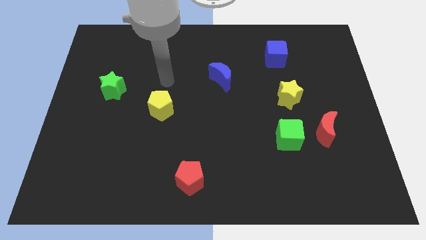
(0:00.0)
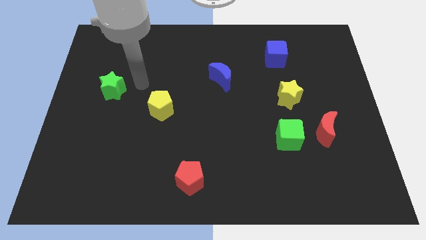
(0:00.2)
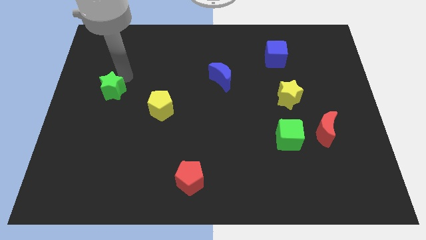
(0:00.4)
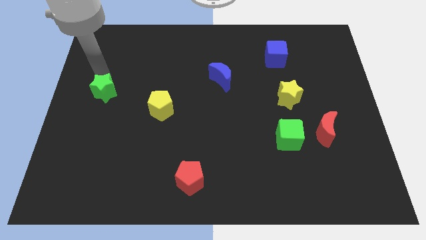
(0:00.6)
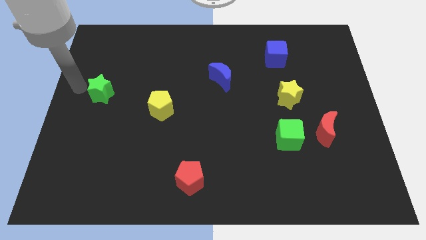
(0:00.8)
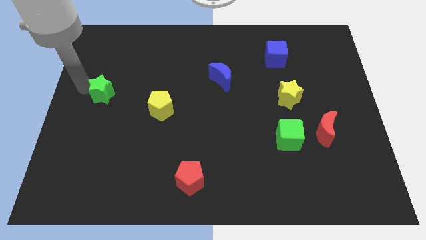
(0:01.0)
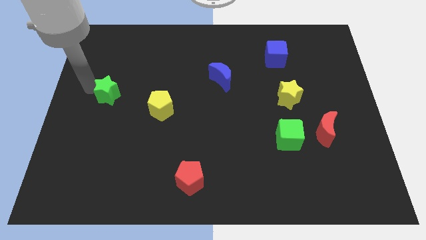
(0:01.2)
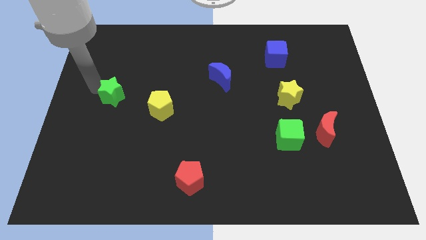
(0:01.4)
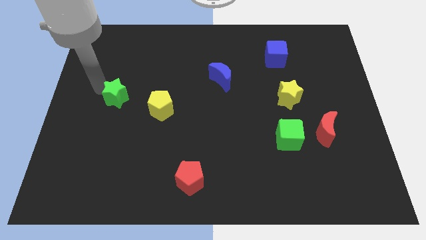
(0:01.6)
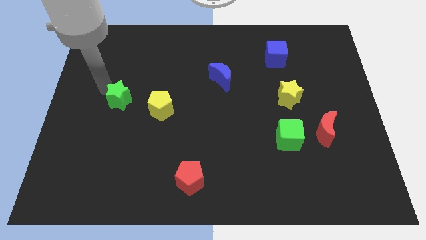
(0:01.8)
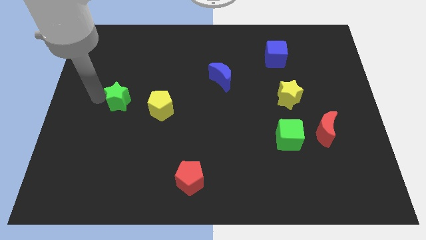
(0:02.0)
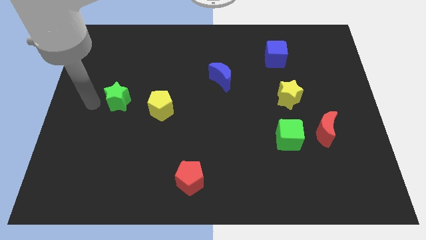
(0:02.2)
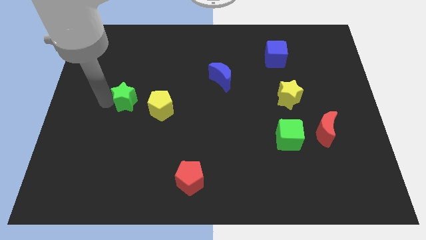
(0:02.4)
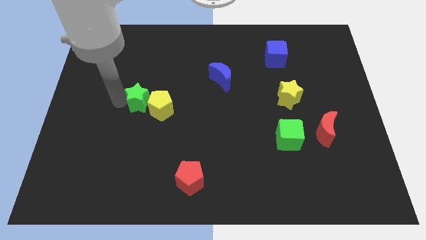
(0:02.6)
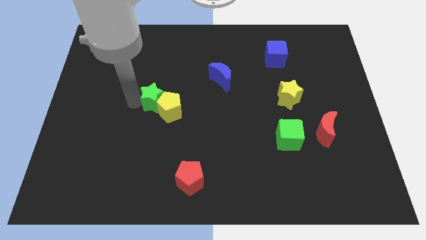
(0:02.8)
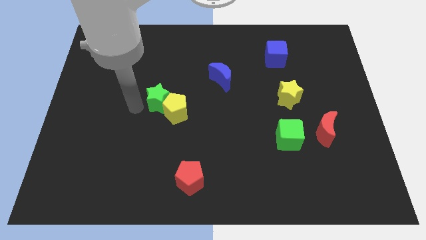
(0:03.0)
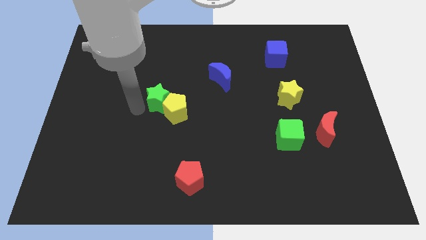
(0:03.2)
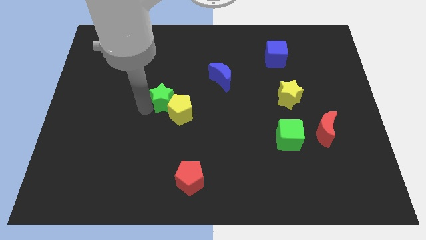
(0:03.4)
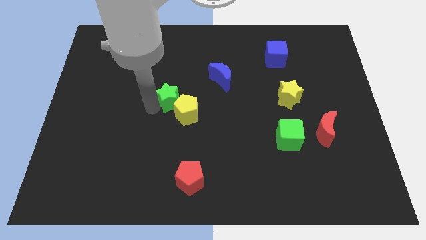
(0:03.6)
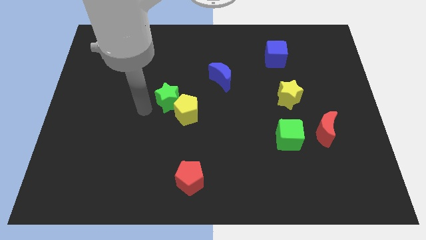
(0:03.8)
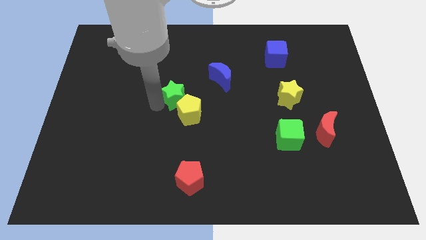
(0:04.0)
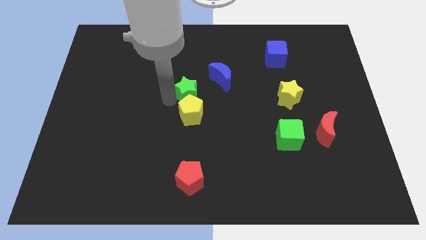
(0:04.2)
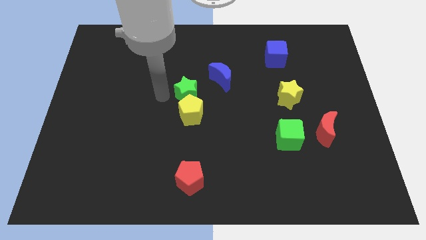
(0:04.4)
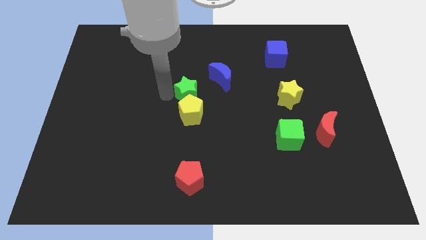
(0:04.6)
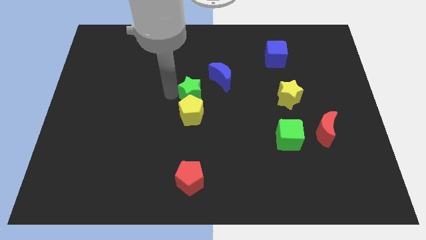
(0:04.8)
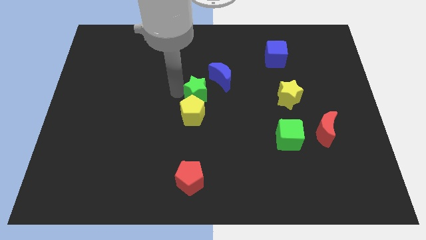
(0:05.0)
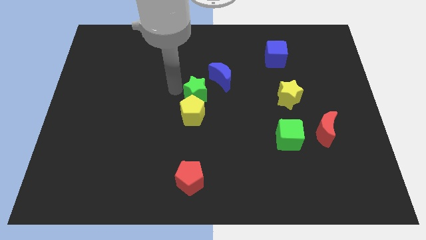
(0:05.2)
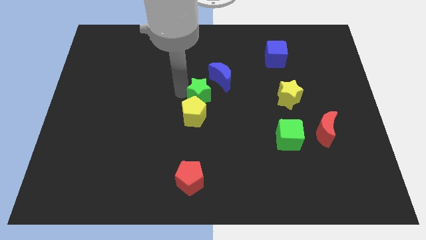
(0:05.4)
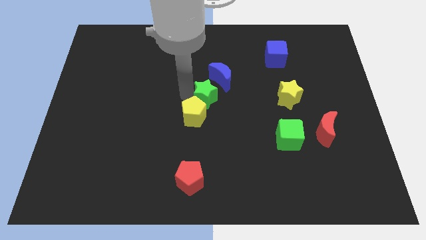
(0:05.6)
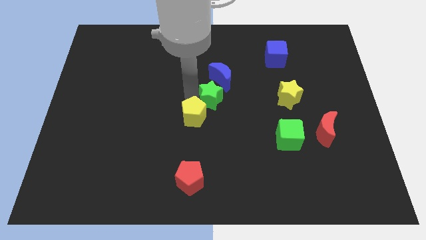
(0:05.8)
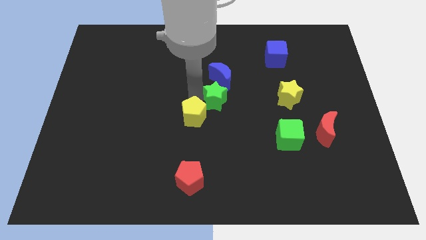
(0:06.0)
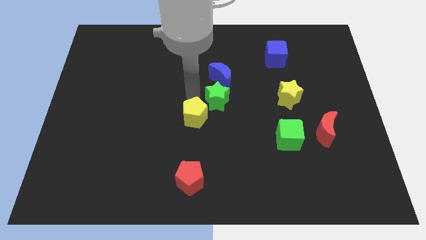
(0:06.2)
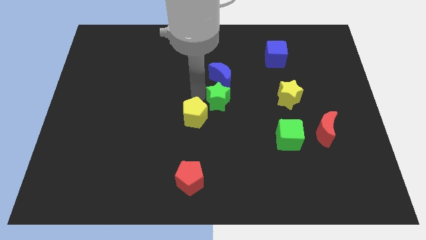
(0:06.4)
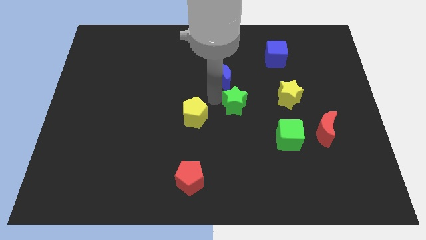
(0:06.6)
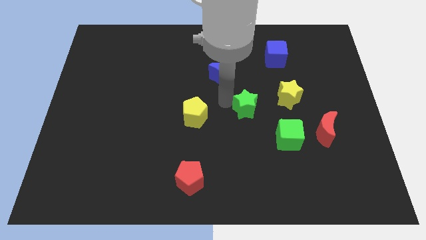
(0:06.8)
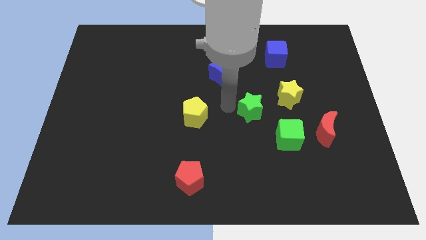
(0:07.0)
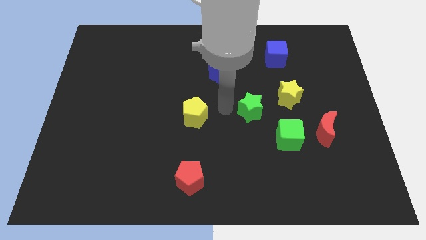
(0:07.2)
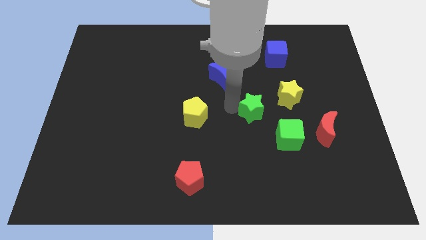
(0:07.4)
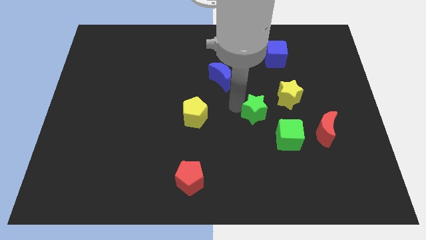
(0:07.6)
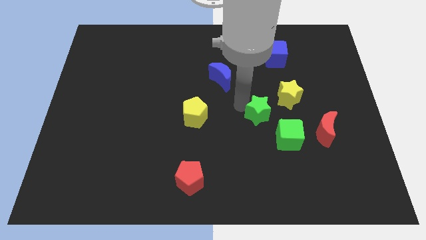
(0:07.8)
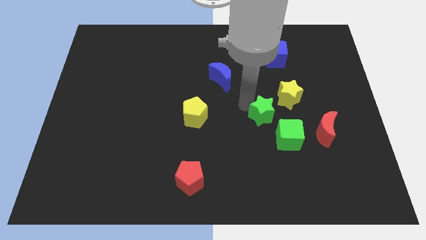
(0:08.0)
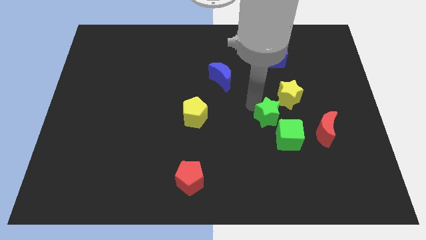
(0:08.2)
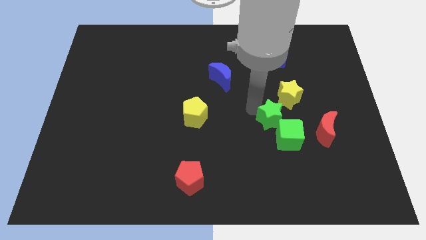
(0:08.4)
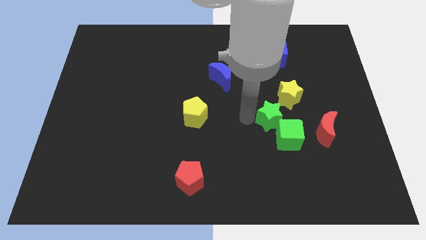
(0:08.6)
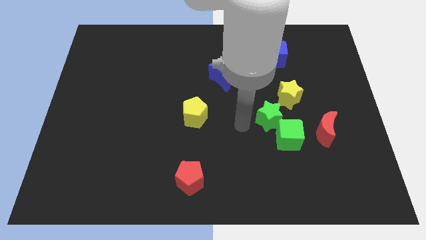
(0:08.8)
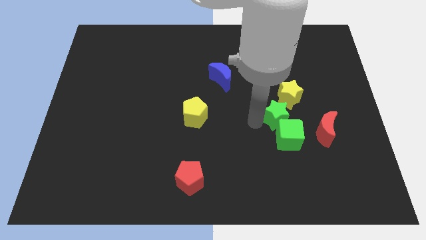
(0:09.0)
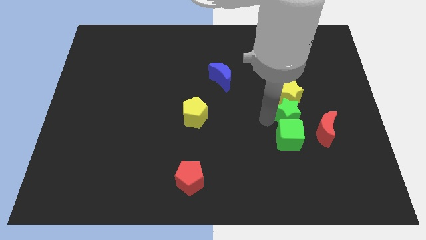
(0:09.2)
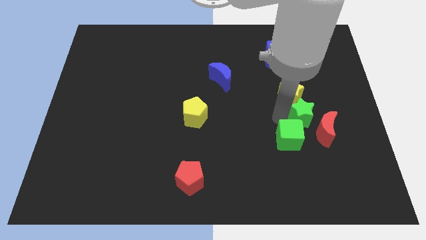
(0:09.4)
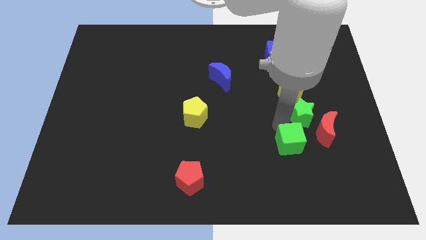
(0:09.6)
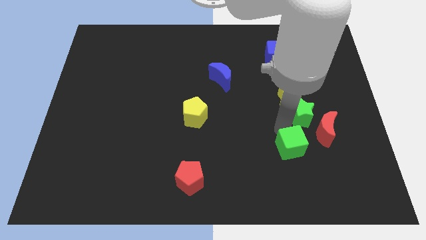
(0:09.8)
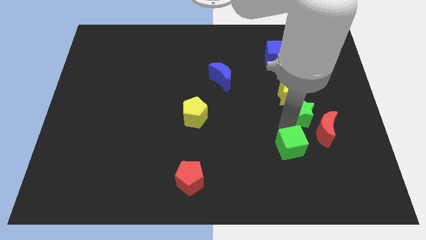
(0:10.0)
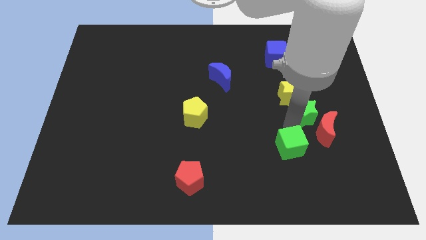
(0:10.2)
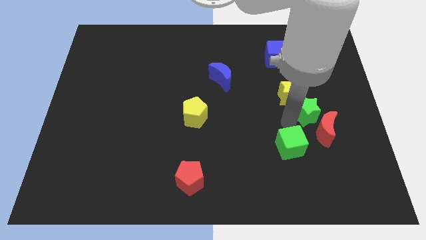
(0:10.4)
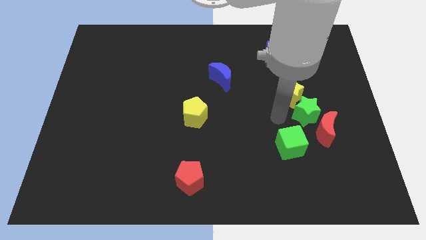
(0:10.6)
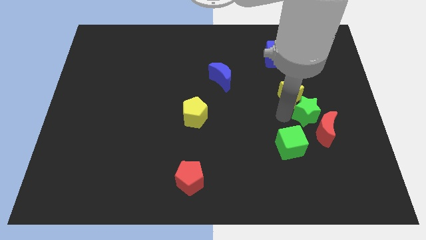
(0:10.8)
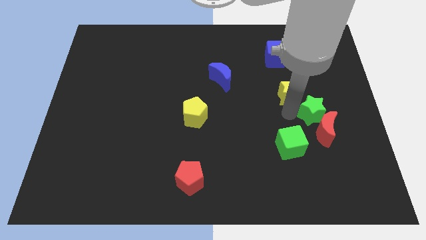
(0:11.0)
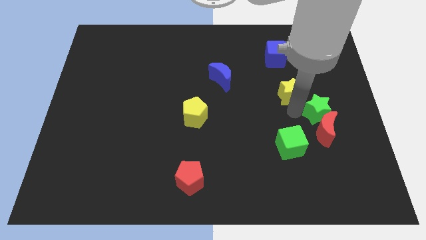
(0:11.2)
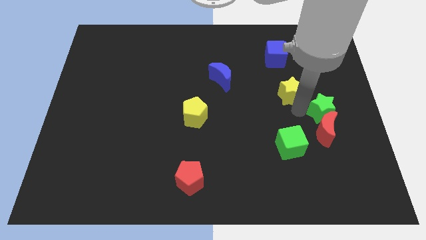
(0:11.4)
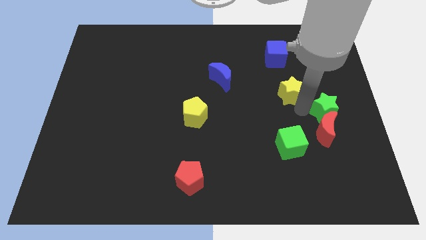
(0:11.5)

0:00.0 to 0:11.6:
put the green star to the right side
